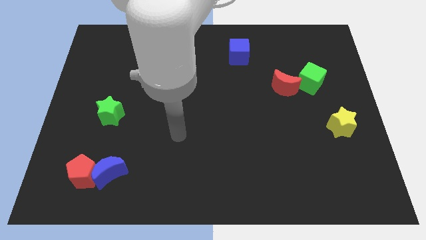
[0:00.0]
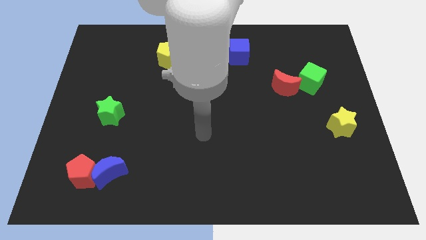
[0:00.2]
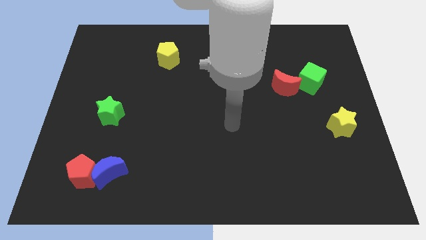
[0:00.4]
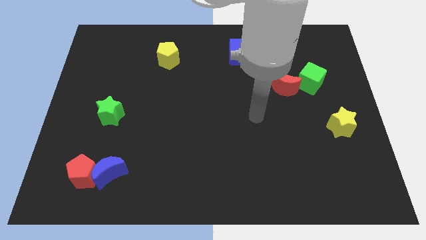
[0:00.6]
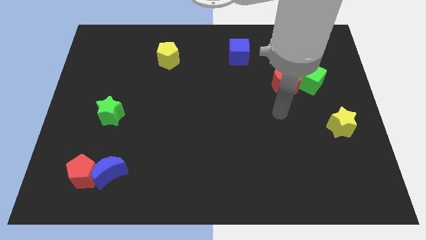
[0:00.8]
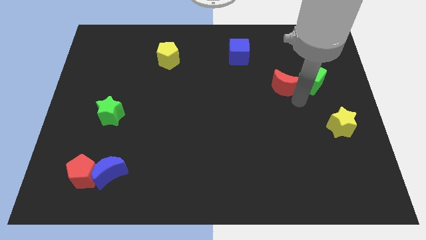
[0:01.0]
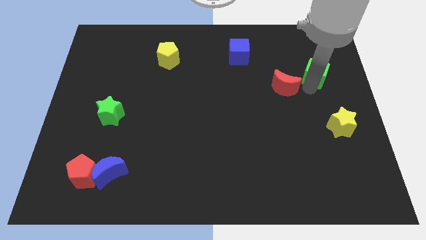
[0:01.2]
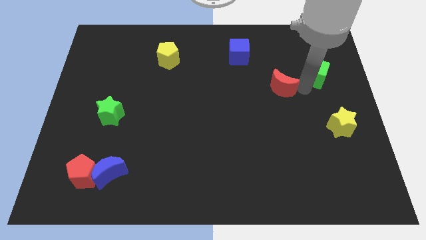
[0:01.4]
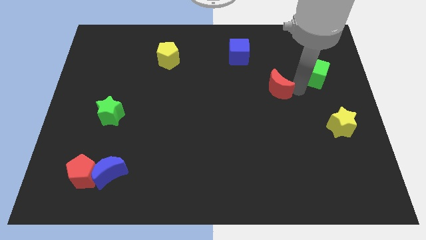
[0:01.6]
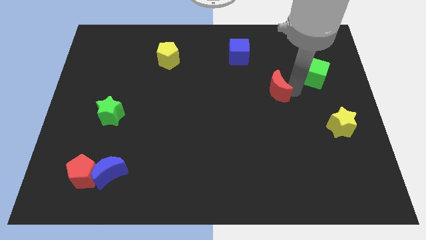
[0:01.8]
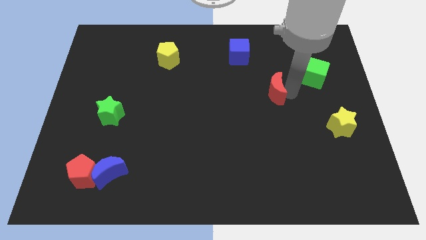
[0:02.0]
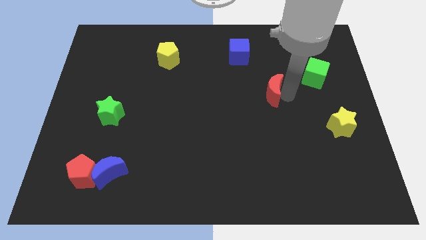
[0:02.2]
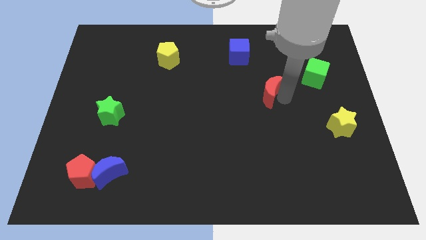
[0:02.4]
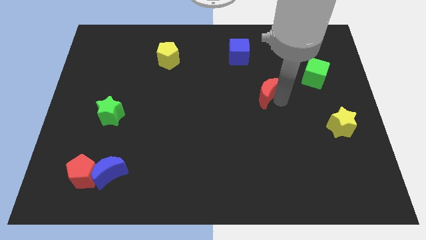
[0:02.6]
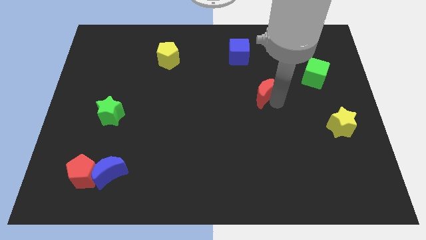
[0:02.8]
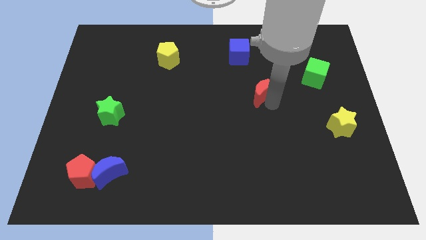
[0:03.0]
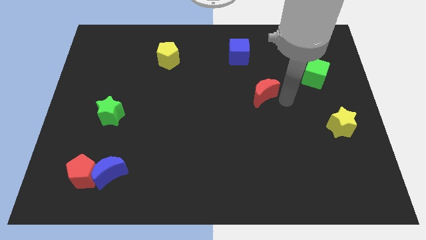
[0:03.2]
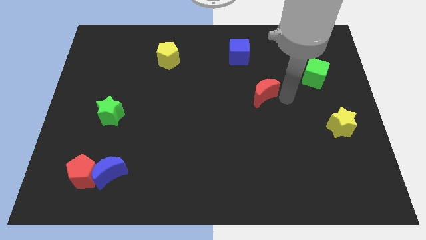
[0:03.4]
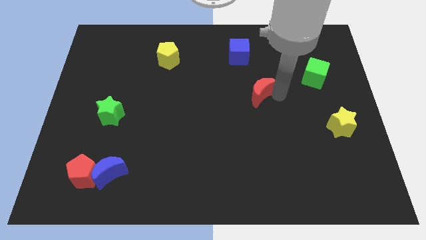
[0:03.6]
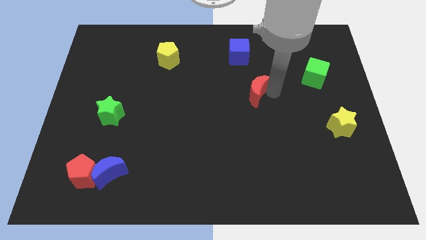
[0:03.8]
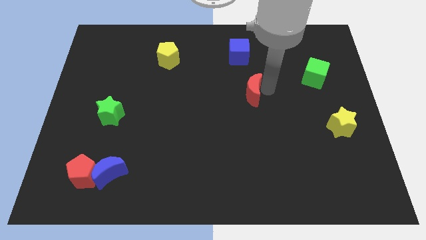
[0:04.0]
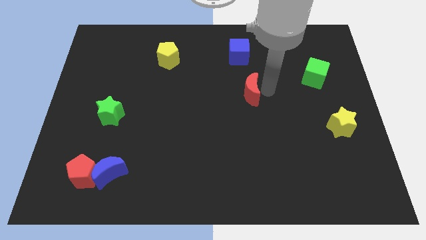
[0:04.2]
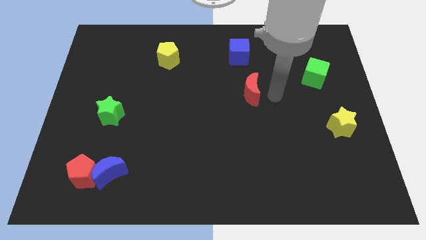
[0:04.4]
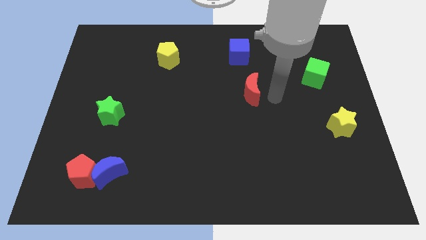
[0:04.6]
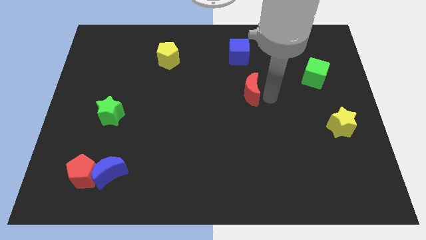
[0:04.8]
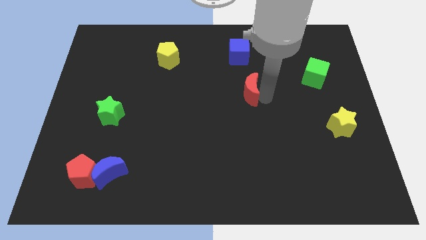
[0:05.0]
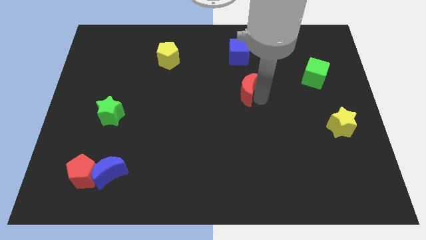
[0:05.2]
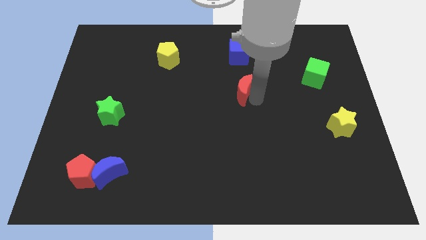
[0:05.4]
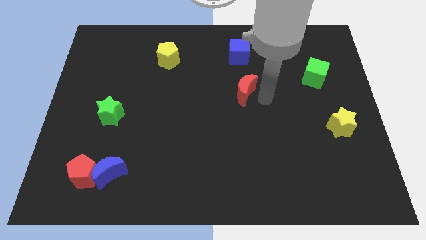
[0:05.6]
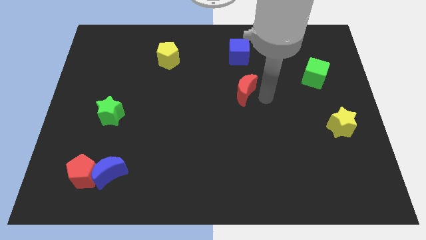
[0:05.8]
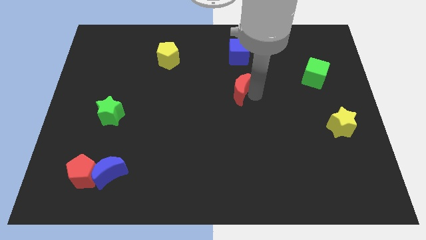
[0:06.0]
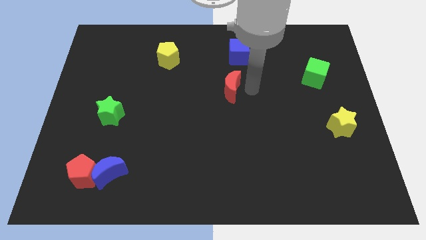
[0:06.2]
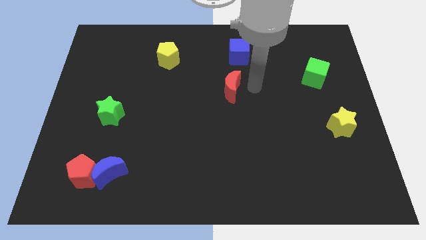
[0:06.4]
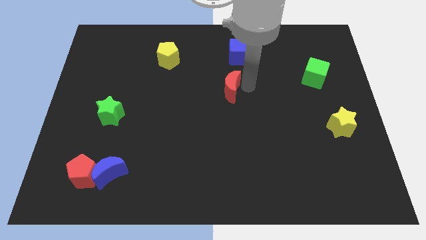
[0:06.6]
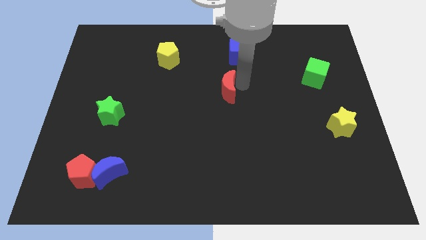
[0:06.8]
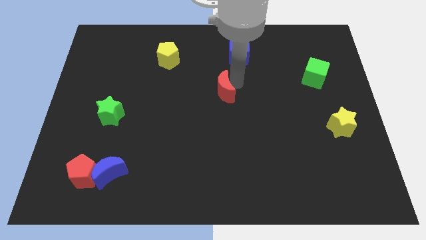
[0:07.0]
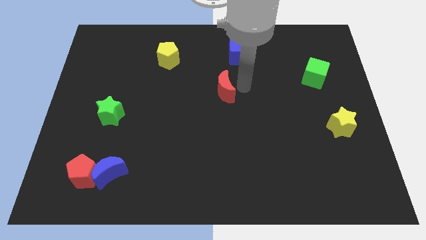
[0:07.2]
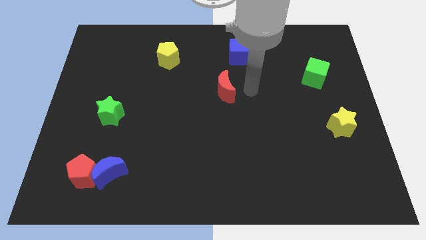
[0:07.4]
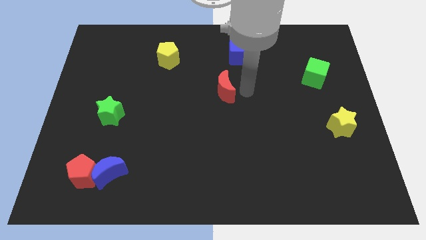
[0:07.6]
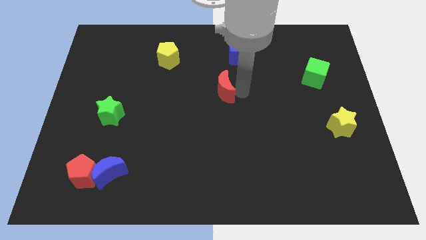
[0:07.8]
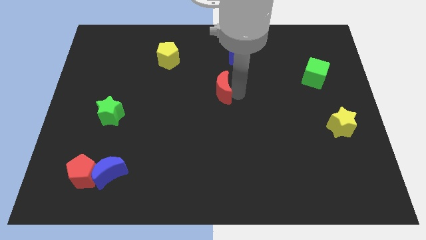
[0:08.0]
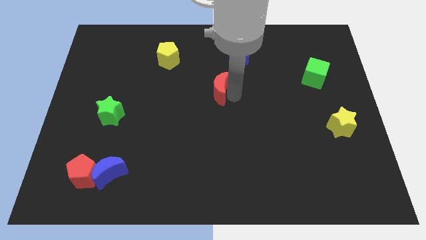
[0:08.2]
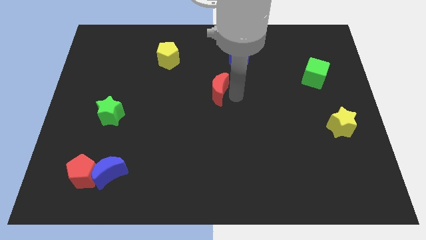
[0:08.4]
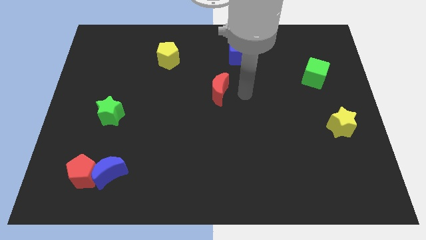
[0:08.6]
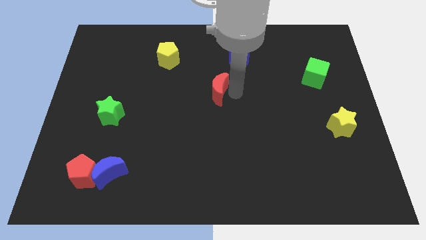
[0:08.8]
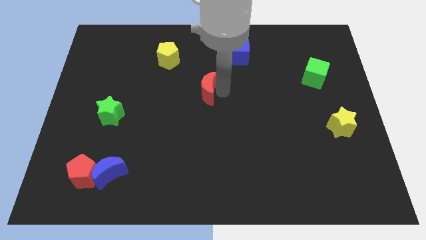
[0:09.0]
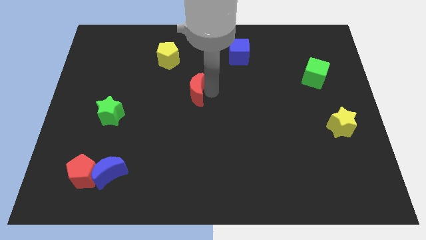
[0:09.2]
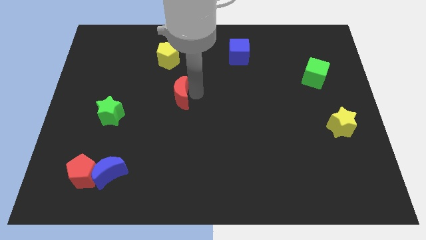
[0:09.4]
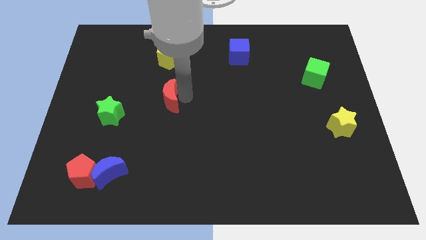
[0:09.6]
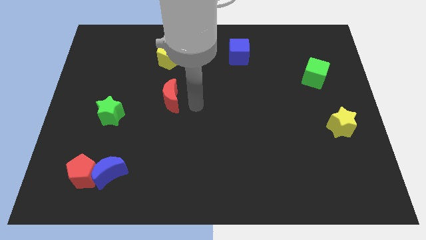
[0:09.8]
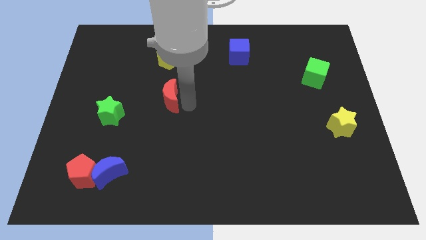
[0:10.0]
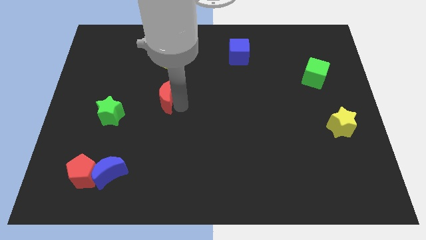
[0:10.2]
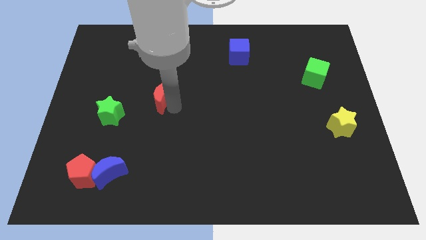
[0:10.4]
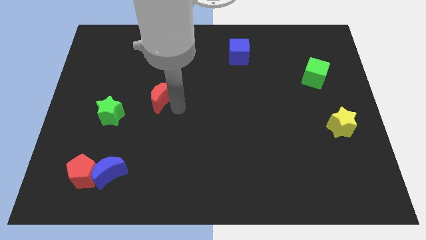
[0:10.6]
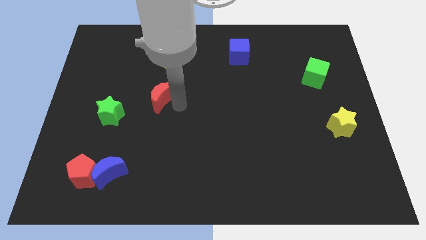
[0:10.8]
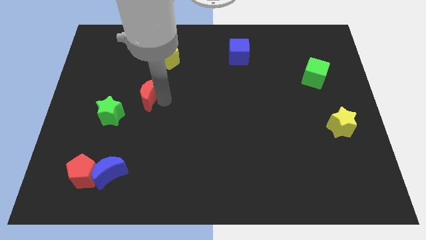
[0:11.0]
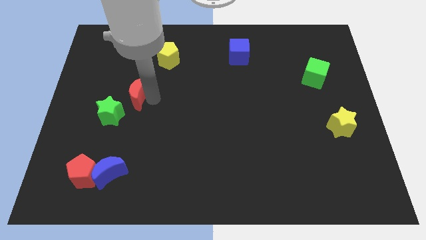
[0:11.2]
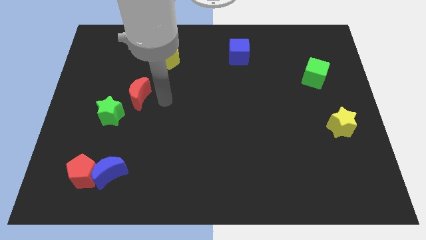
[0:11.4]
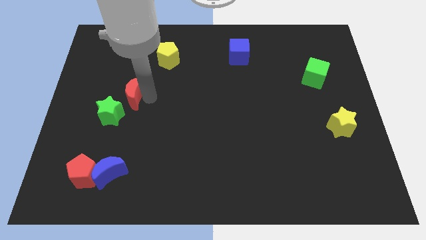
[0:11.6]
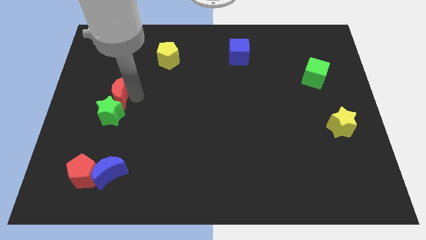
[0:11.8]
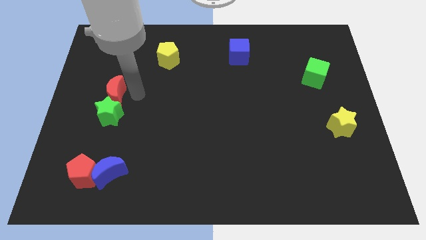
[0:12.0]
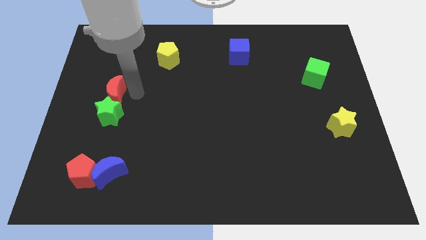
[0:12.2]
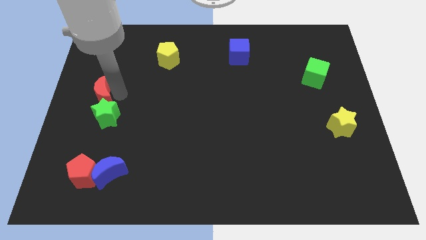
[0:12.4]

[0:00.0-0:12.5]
push the red moon to the center left
